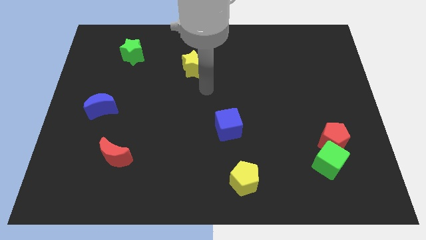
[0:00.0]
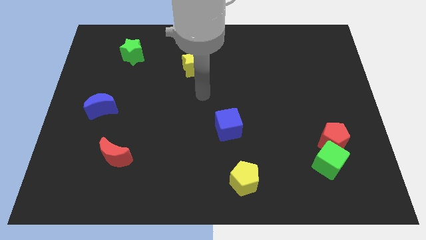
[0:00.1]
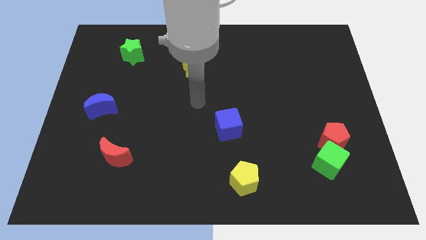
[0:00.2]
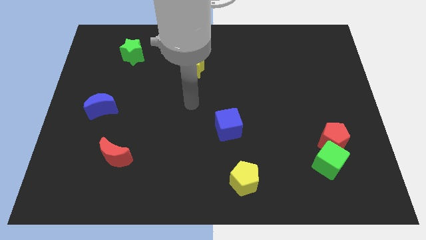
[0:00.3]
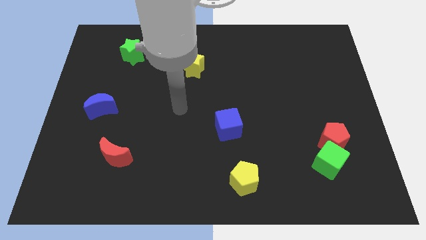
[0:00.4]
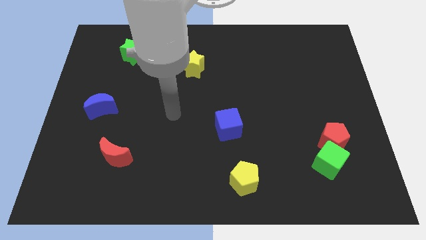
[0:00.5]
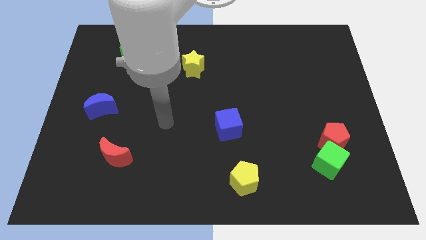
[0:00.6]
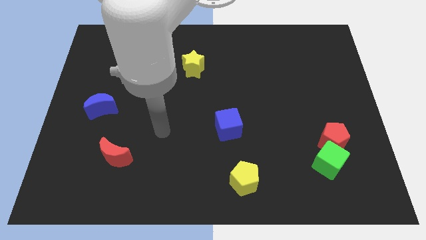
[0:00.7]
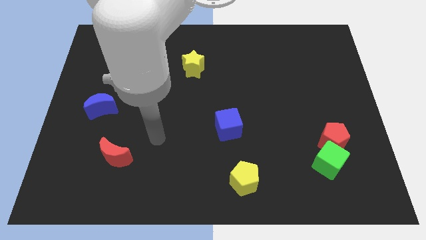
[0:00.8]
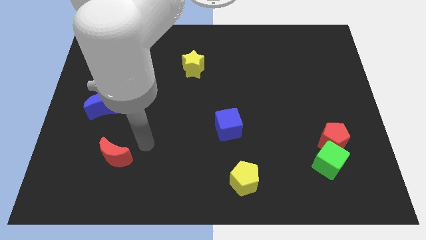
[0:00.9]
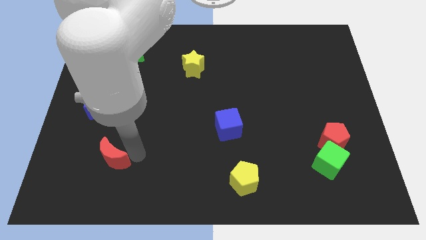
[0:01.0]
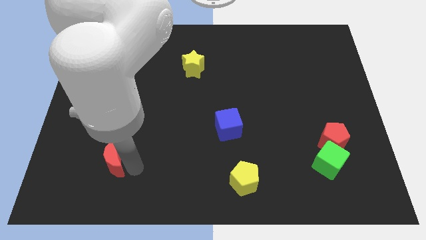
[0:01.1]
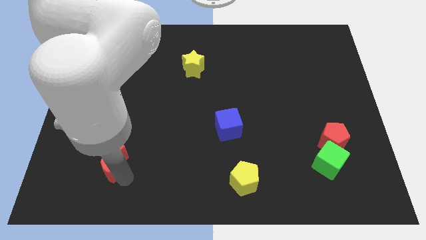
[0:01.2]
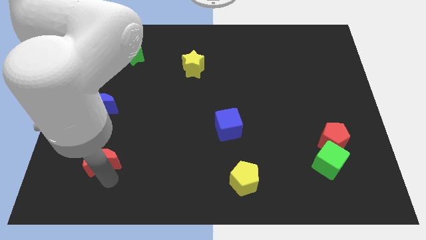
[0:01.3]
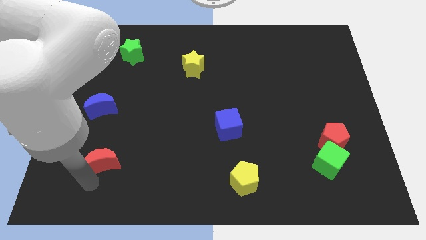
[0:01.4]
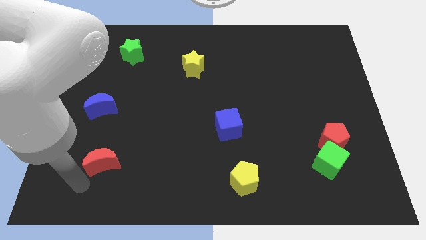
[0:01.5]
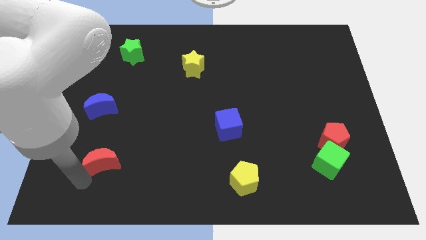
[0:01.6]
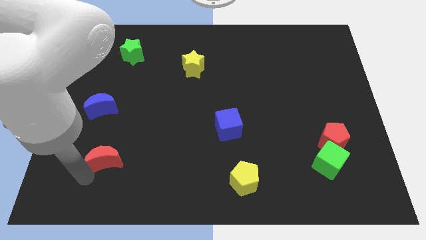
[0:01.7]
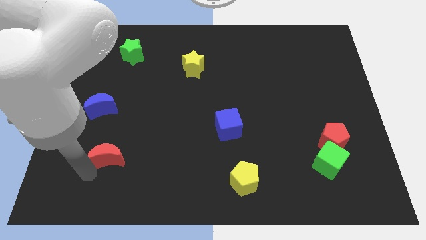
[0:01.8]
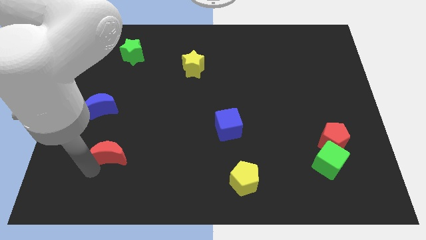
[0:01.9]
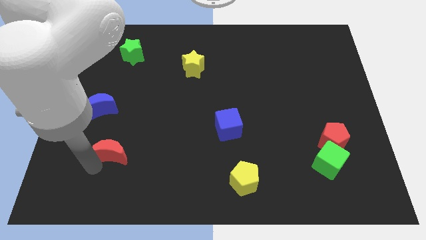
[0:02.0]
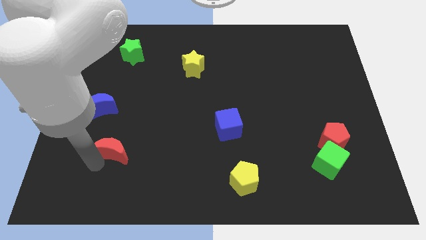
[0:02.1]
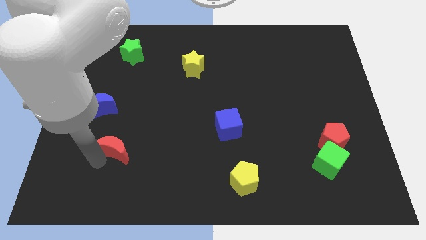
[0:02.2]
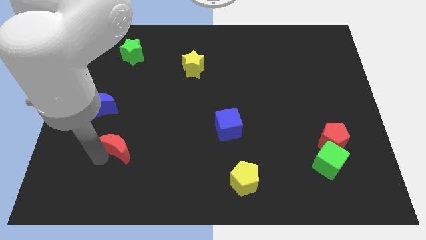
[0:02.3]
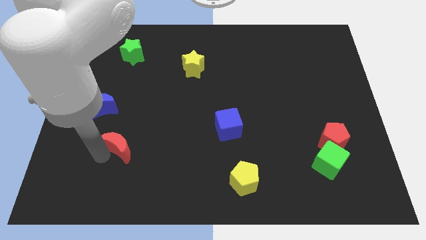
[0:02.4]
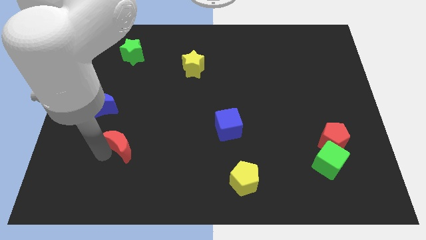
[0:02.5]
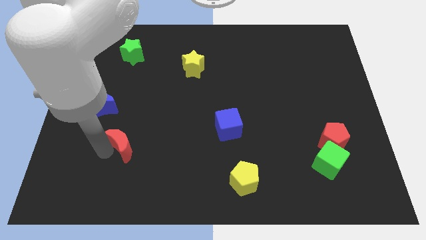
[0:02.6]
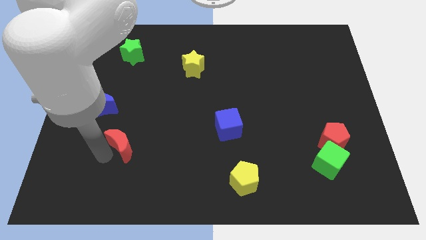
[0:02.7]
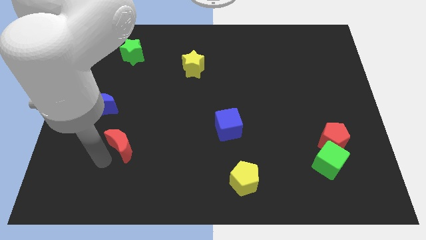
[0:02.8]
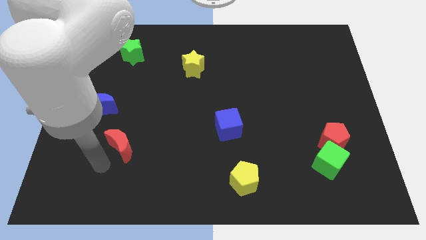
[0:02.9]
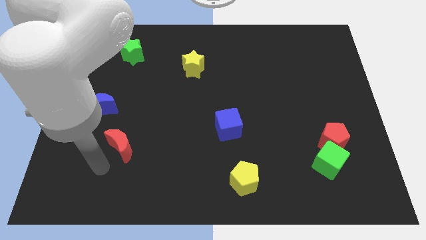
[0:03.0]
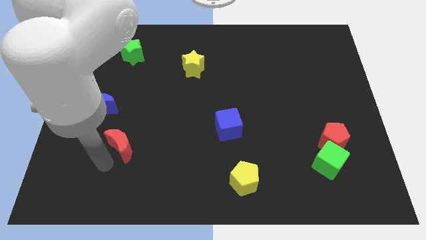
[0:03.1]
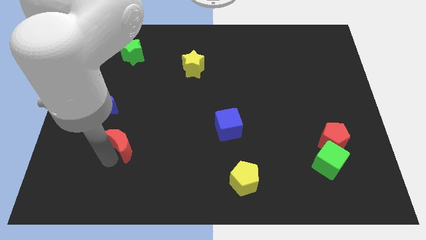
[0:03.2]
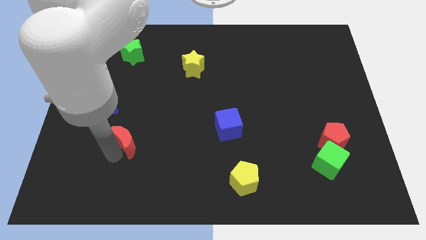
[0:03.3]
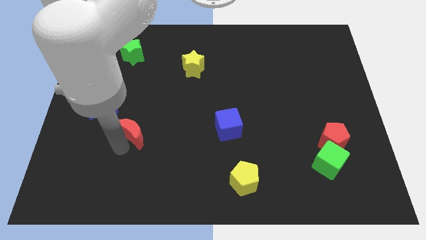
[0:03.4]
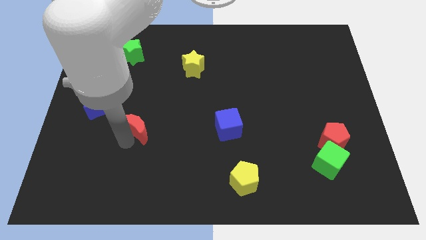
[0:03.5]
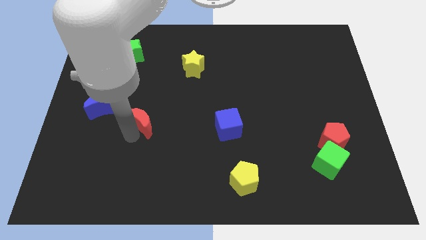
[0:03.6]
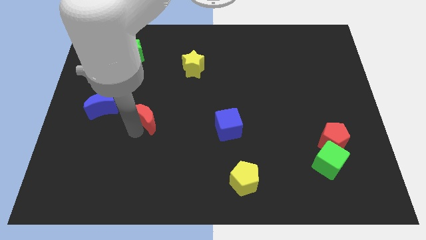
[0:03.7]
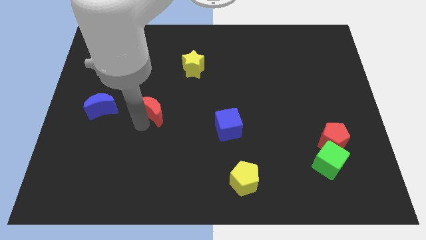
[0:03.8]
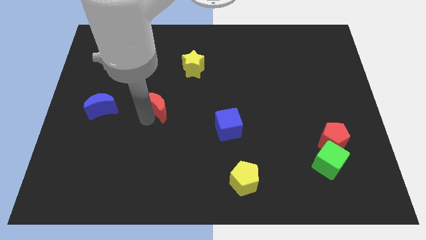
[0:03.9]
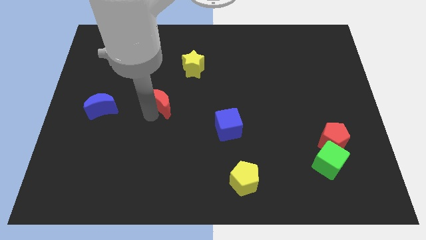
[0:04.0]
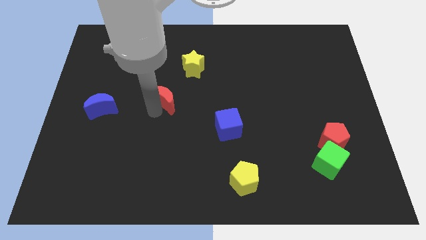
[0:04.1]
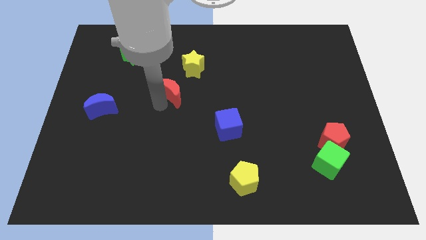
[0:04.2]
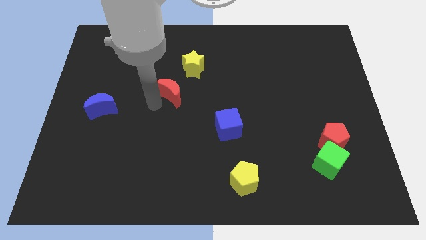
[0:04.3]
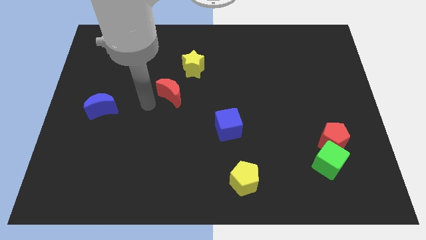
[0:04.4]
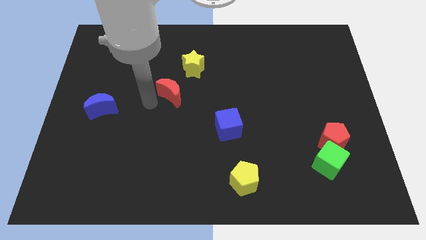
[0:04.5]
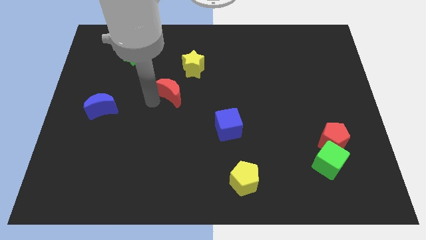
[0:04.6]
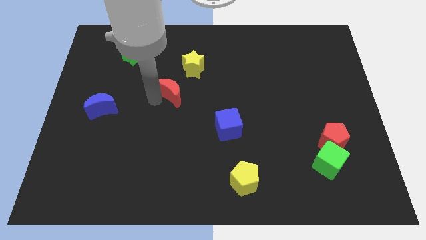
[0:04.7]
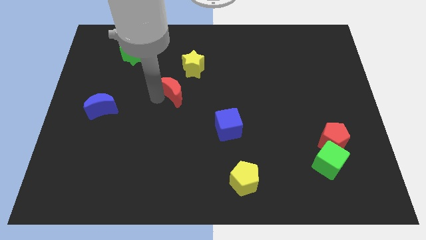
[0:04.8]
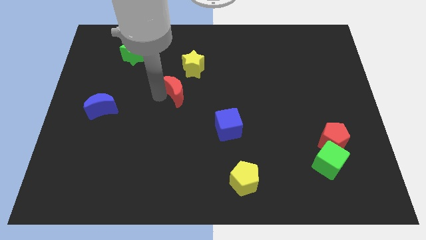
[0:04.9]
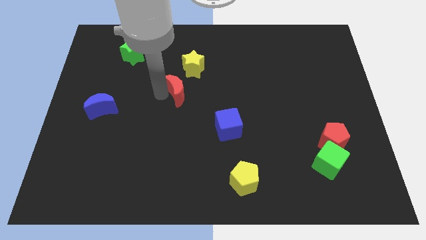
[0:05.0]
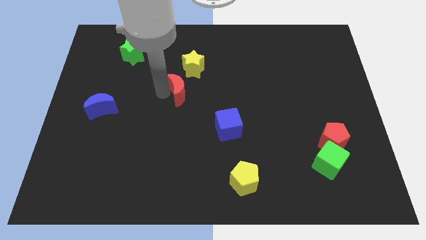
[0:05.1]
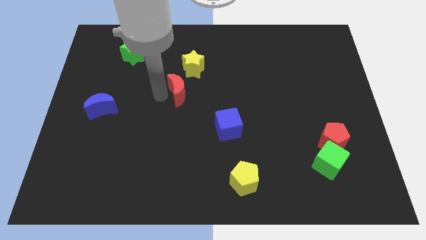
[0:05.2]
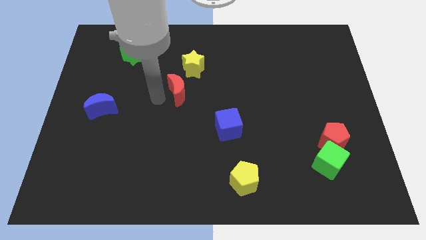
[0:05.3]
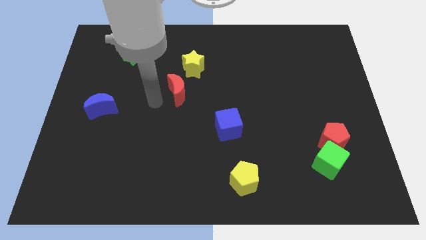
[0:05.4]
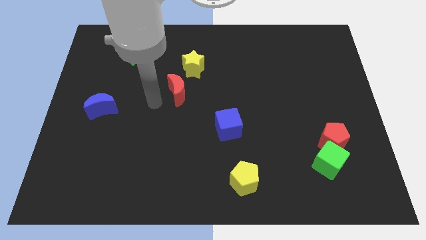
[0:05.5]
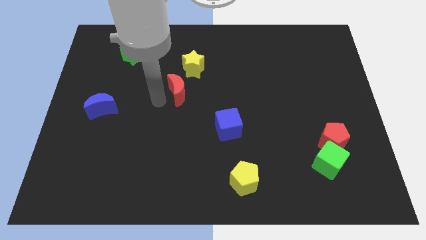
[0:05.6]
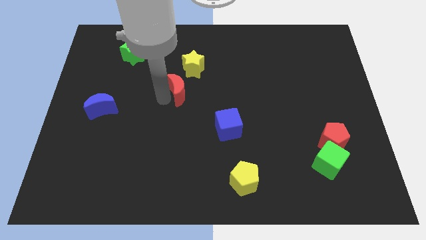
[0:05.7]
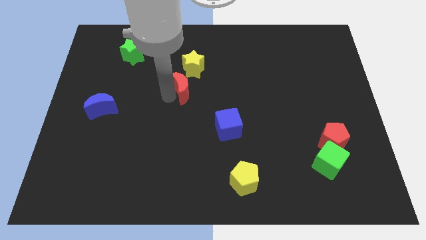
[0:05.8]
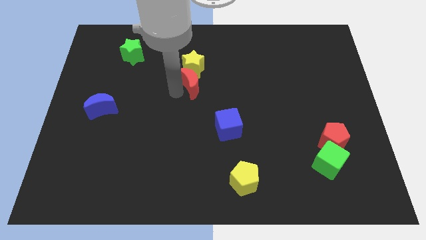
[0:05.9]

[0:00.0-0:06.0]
put the red moon to the bottom right of the yellow star

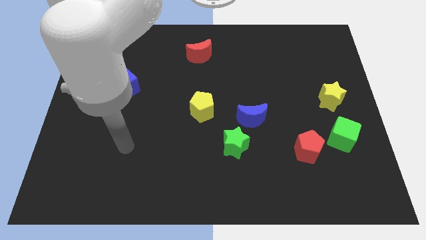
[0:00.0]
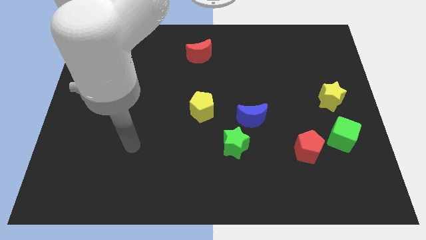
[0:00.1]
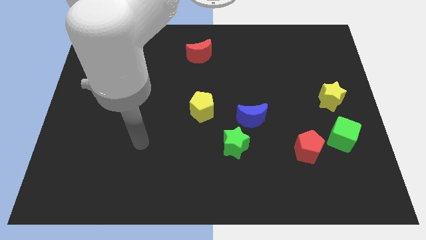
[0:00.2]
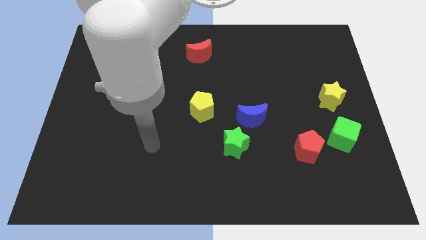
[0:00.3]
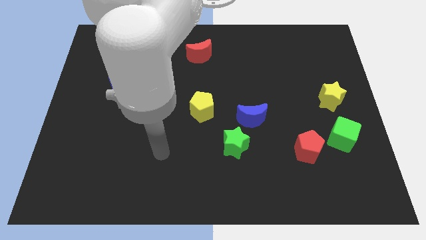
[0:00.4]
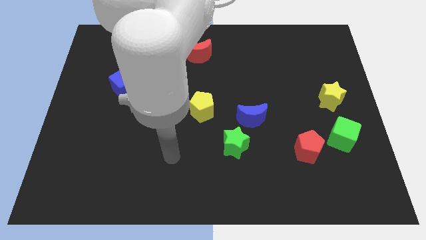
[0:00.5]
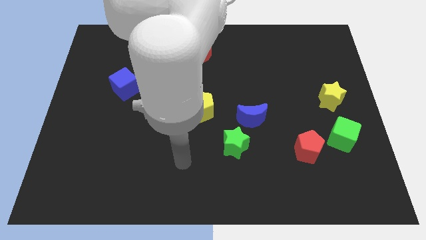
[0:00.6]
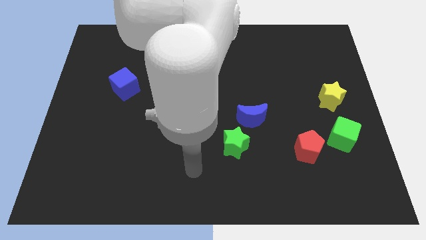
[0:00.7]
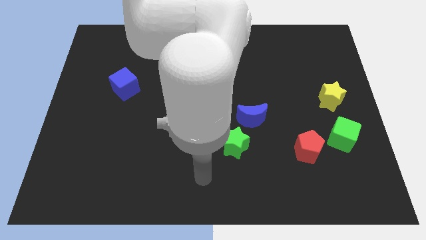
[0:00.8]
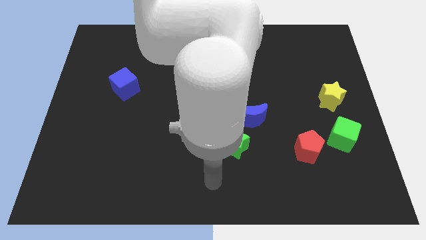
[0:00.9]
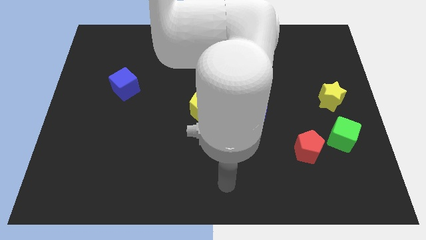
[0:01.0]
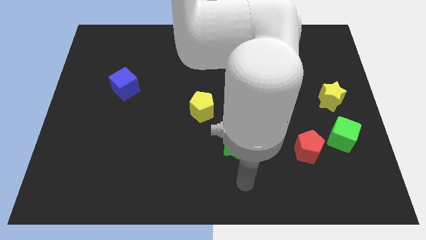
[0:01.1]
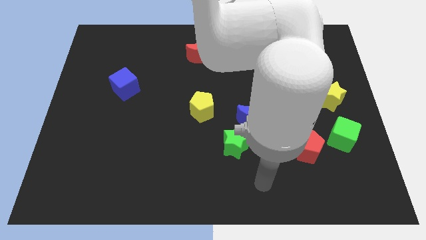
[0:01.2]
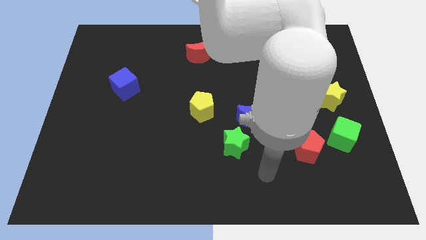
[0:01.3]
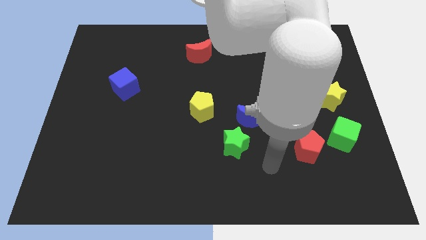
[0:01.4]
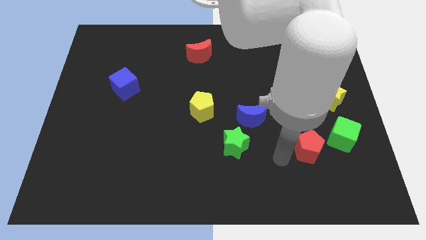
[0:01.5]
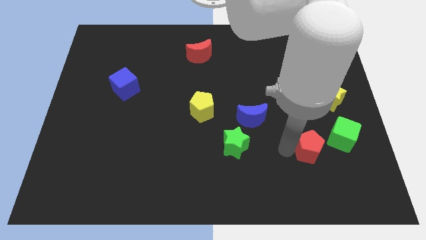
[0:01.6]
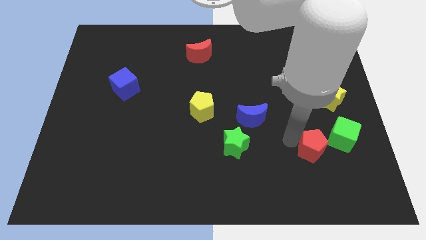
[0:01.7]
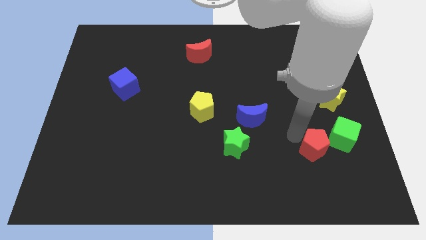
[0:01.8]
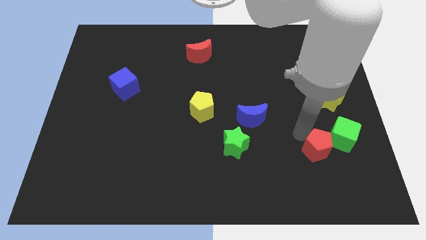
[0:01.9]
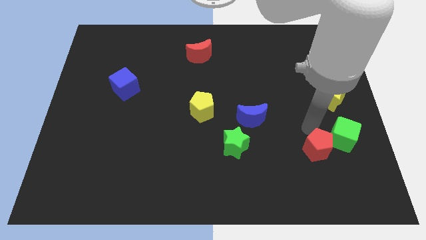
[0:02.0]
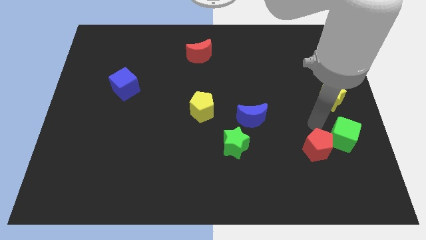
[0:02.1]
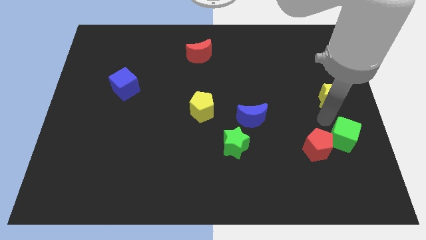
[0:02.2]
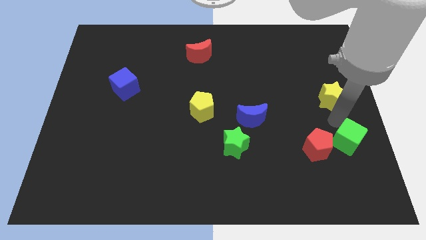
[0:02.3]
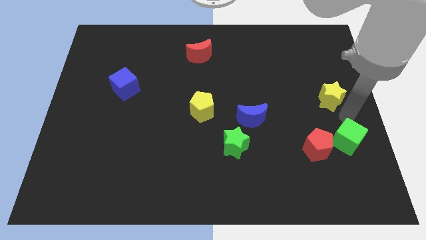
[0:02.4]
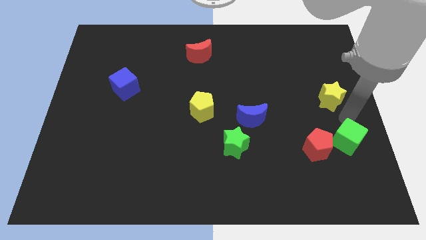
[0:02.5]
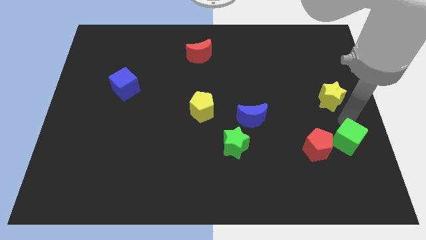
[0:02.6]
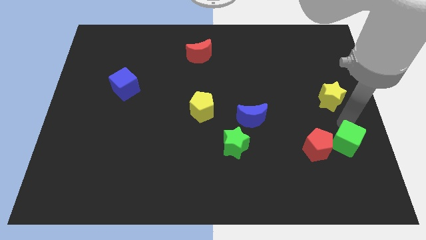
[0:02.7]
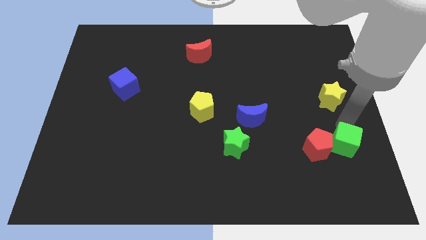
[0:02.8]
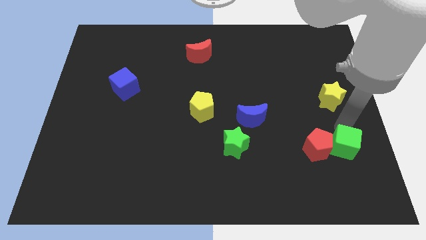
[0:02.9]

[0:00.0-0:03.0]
push the green cube to the bottom right side of the red pentagon
